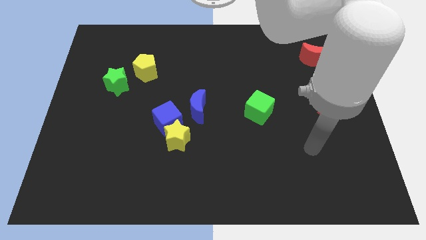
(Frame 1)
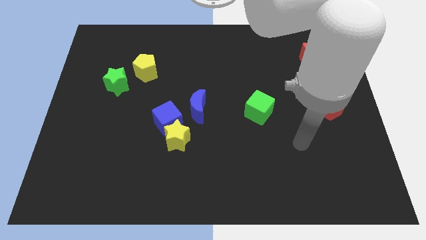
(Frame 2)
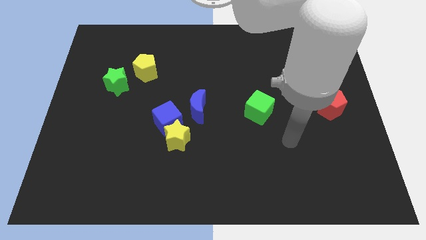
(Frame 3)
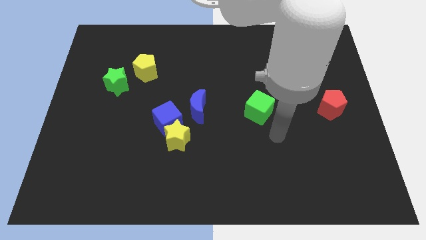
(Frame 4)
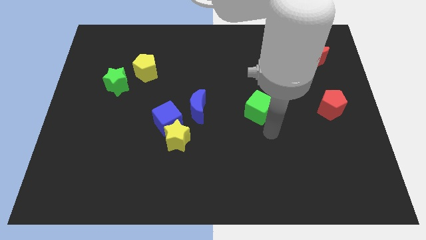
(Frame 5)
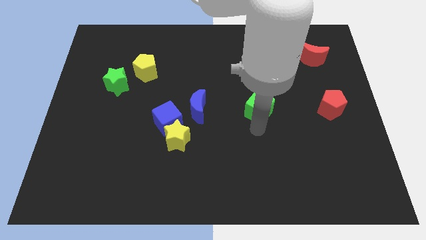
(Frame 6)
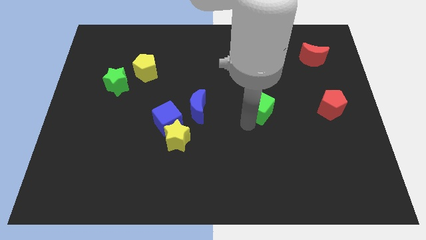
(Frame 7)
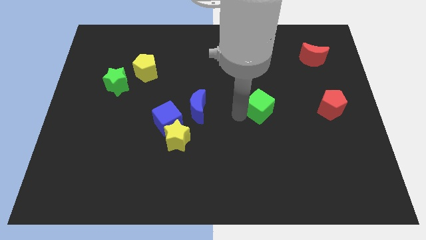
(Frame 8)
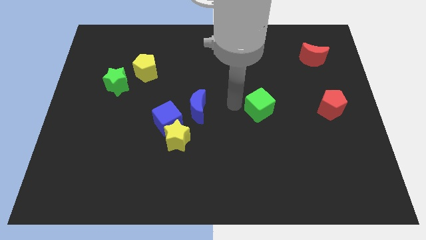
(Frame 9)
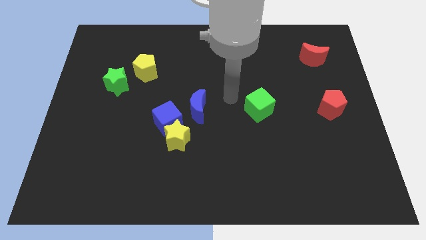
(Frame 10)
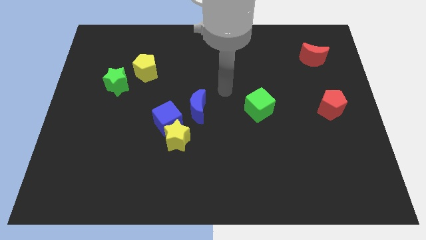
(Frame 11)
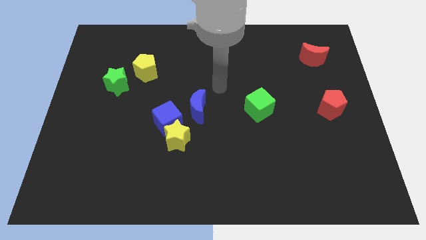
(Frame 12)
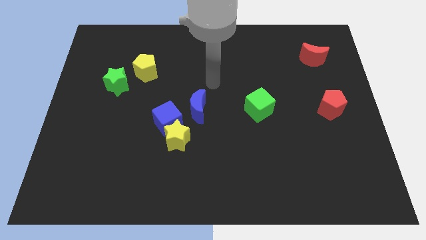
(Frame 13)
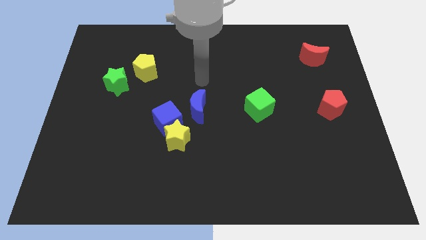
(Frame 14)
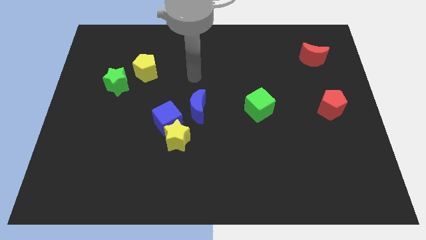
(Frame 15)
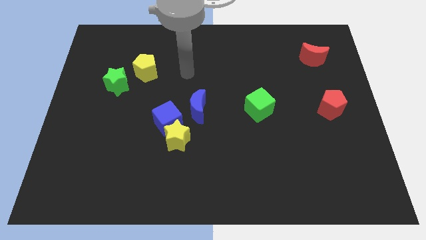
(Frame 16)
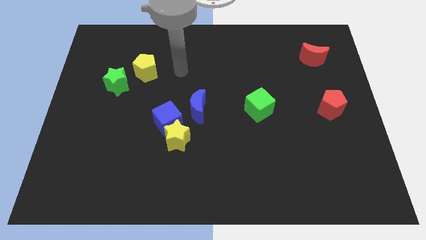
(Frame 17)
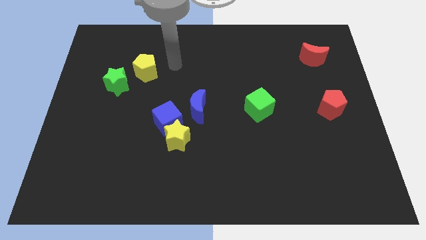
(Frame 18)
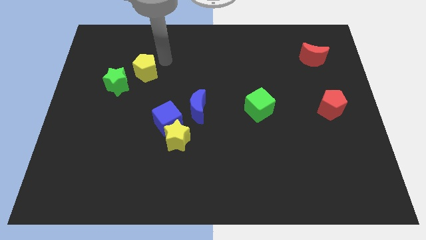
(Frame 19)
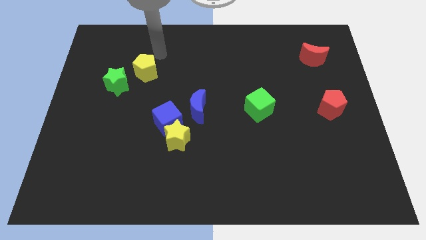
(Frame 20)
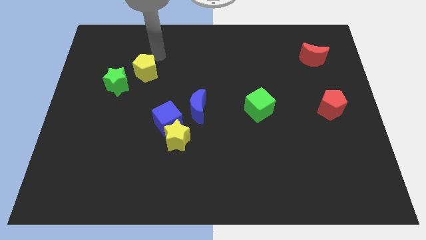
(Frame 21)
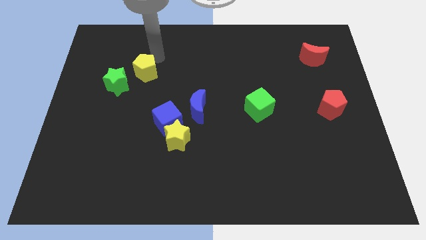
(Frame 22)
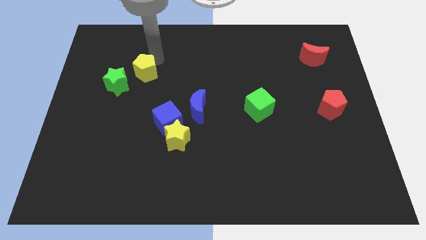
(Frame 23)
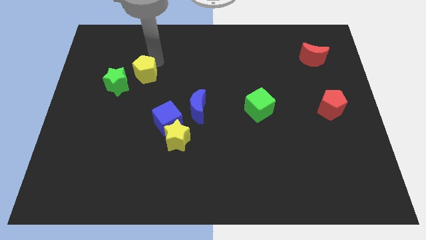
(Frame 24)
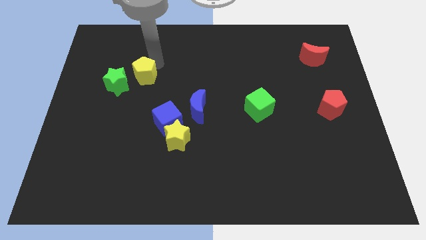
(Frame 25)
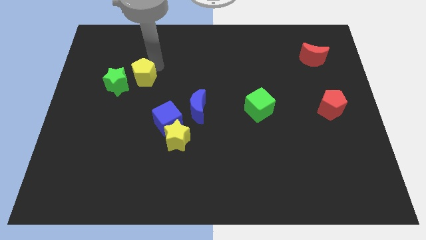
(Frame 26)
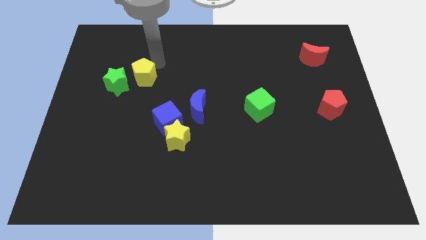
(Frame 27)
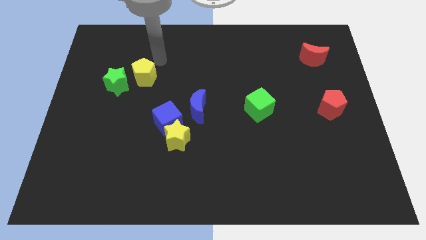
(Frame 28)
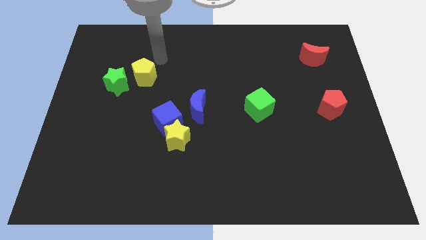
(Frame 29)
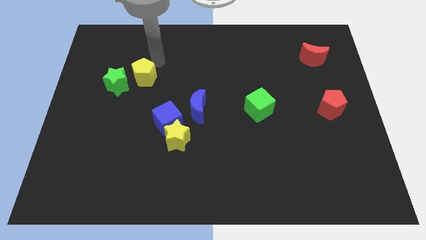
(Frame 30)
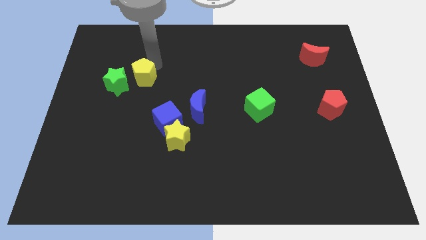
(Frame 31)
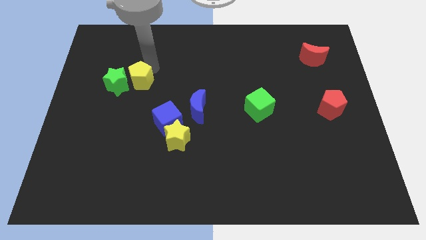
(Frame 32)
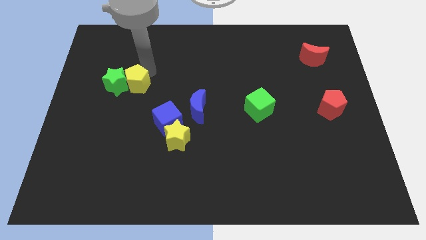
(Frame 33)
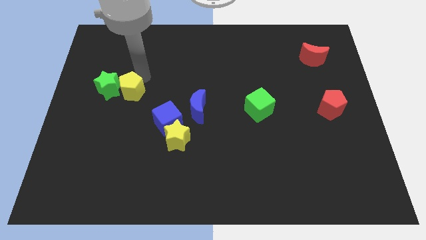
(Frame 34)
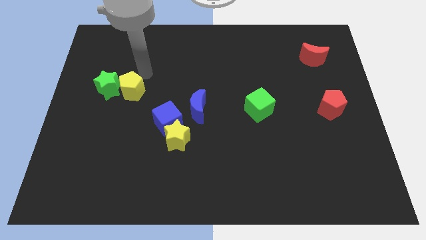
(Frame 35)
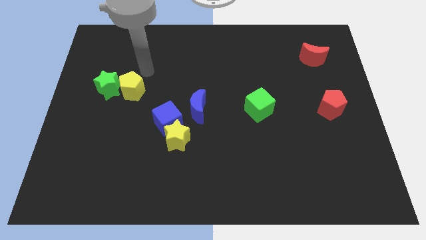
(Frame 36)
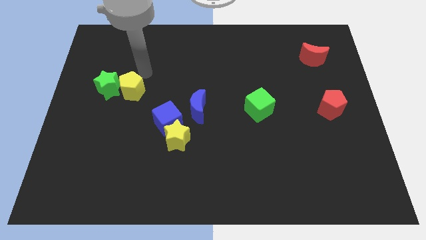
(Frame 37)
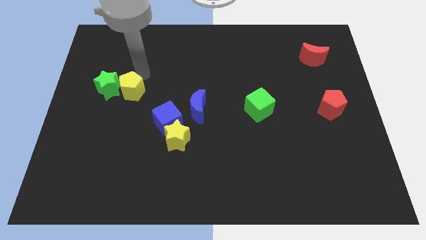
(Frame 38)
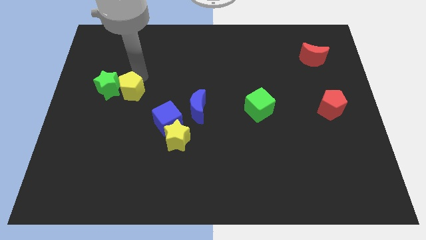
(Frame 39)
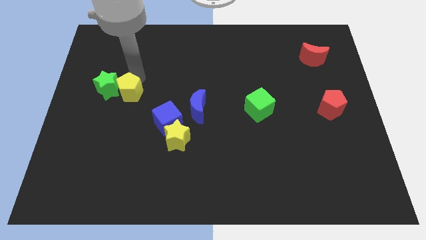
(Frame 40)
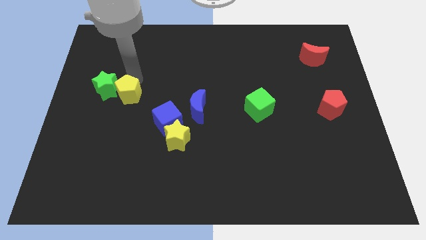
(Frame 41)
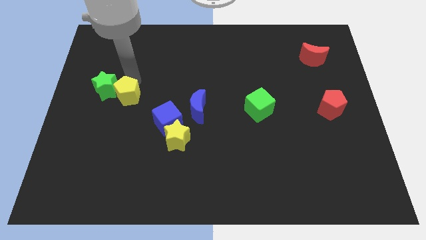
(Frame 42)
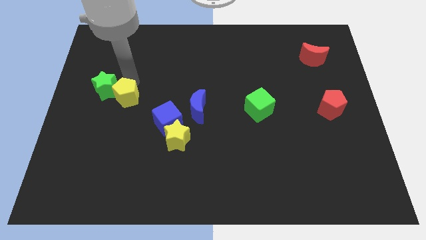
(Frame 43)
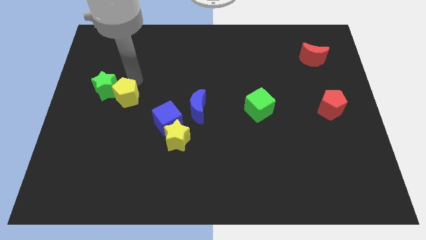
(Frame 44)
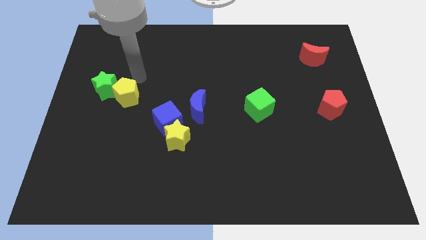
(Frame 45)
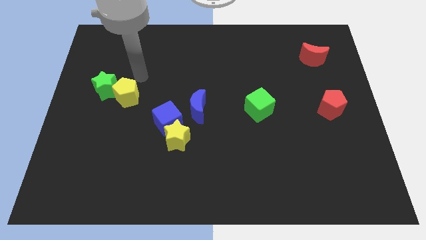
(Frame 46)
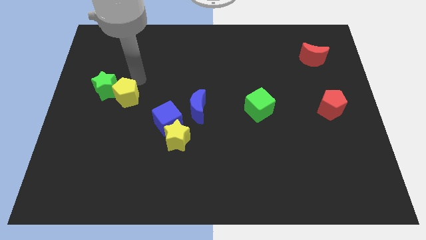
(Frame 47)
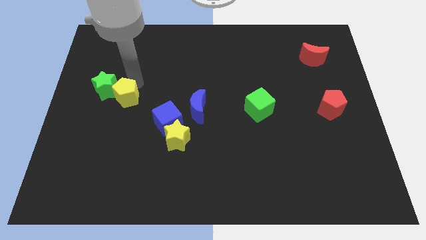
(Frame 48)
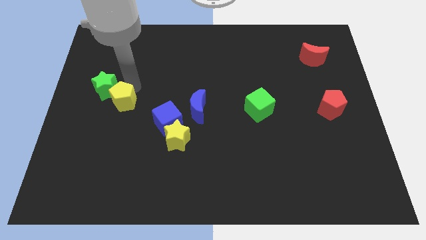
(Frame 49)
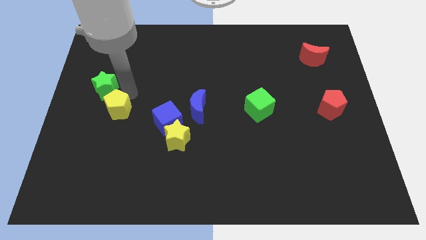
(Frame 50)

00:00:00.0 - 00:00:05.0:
push the yellow pentagon below the green star

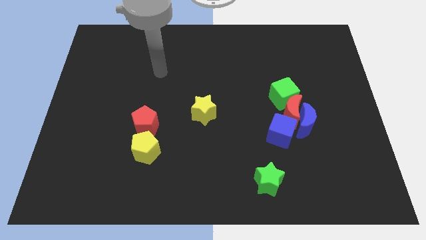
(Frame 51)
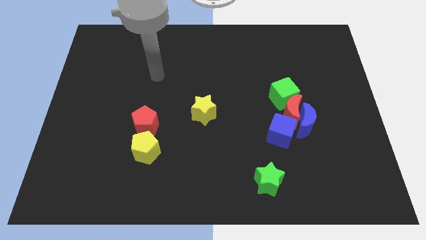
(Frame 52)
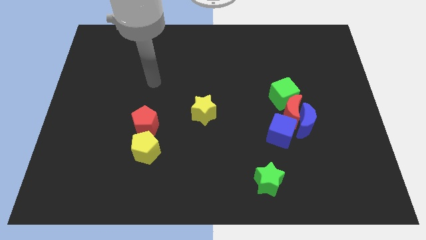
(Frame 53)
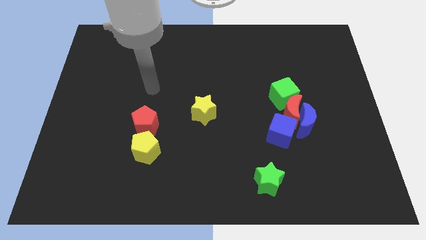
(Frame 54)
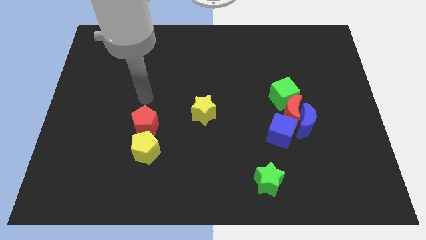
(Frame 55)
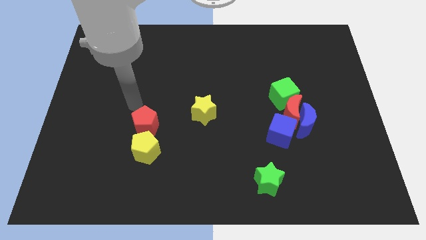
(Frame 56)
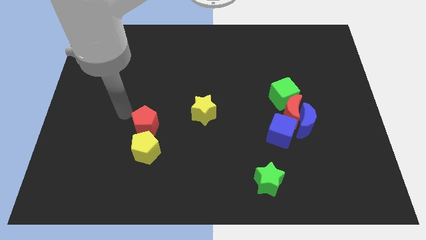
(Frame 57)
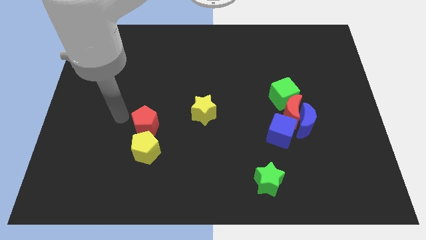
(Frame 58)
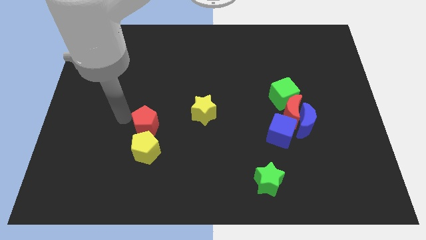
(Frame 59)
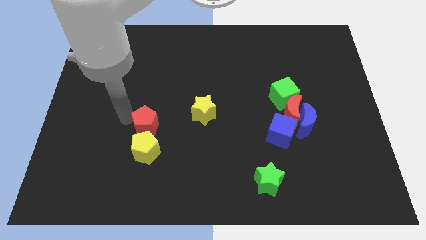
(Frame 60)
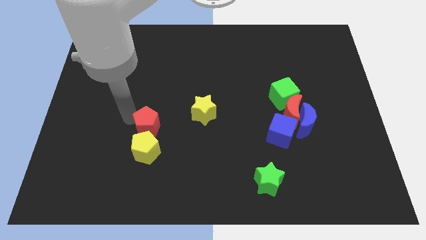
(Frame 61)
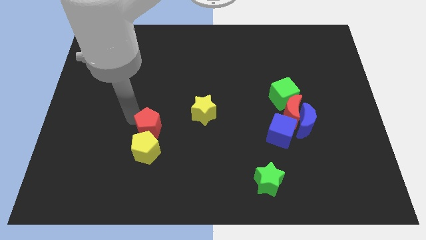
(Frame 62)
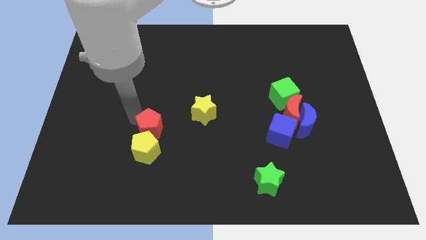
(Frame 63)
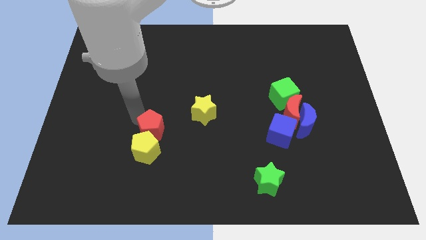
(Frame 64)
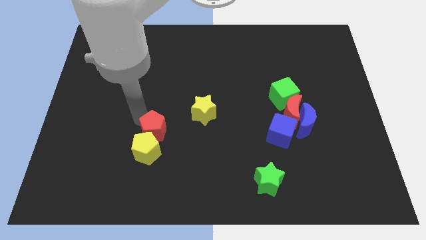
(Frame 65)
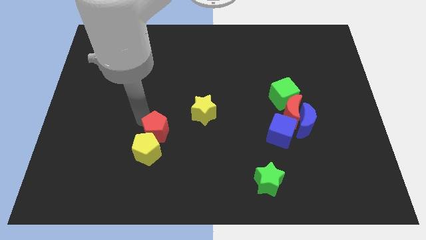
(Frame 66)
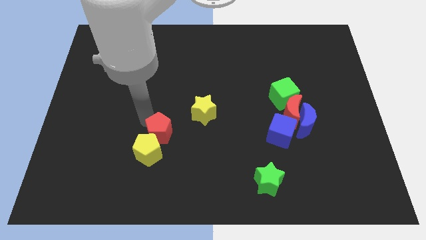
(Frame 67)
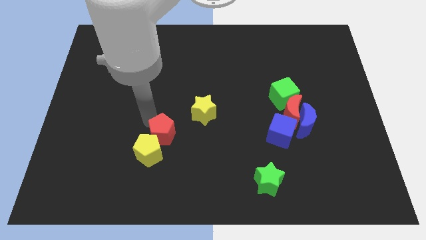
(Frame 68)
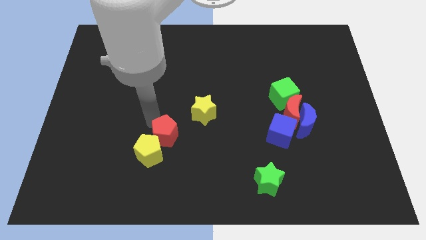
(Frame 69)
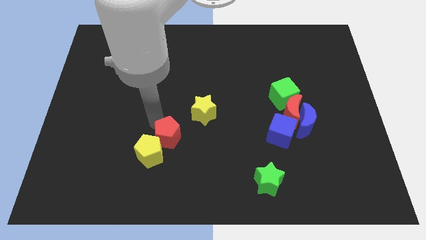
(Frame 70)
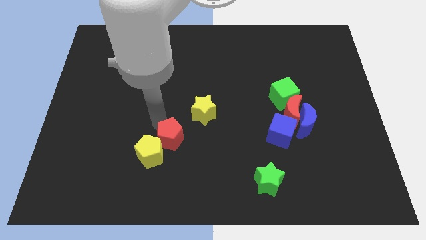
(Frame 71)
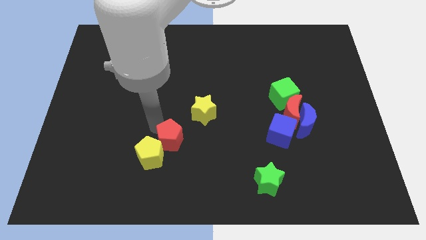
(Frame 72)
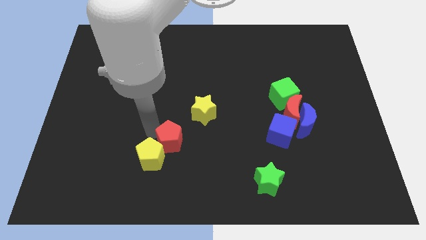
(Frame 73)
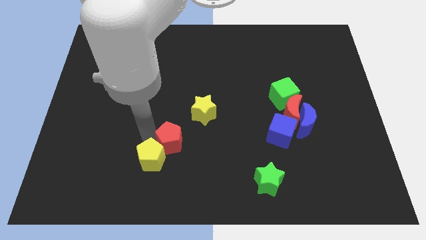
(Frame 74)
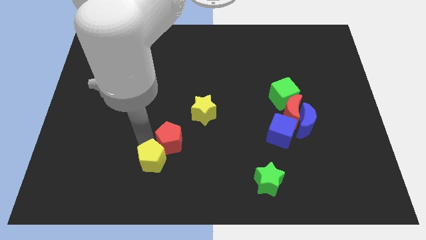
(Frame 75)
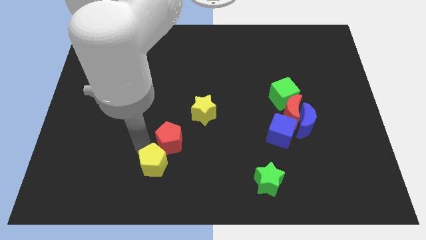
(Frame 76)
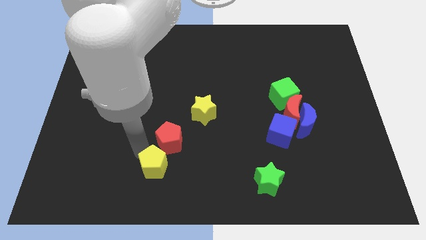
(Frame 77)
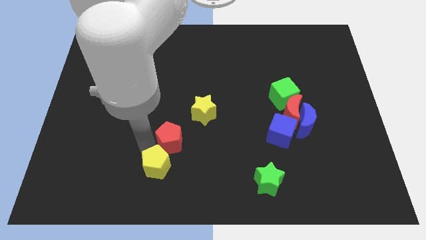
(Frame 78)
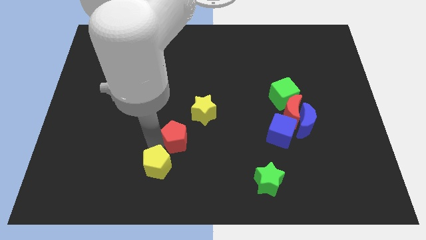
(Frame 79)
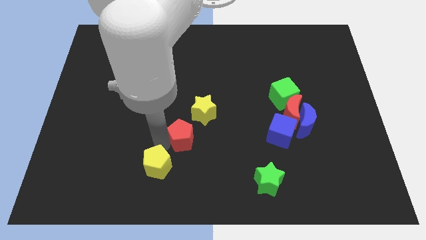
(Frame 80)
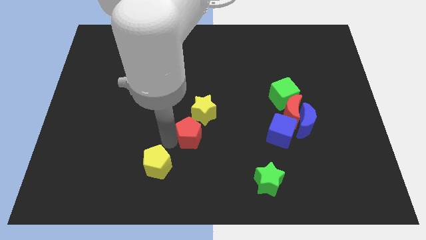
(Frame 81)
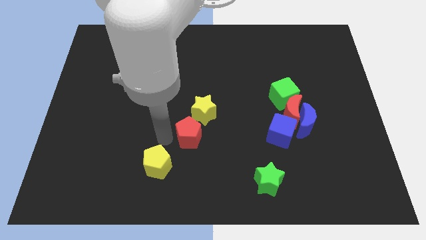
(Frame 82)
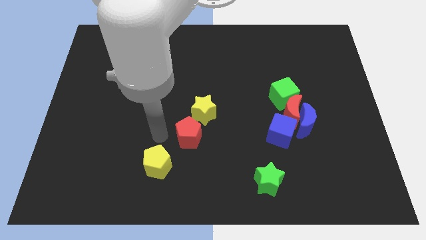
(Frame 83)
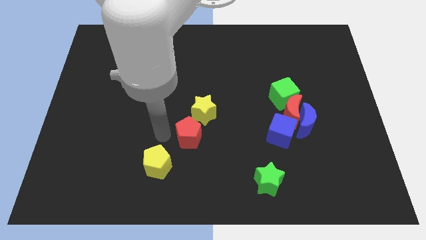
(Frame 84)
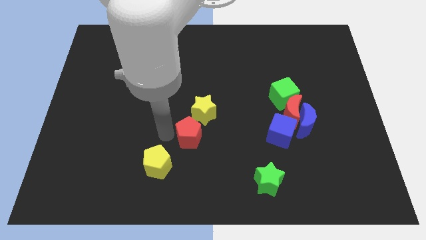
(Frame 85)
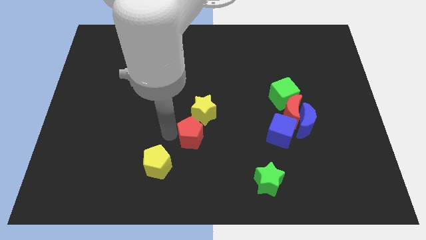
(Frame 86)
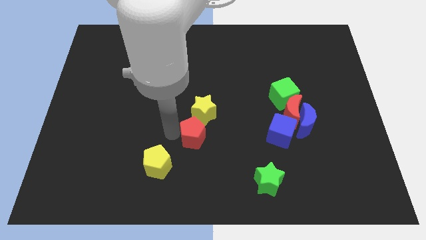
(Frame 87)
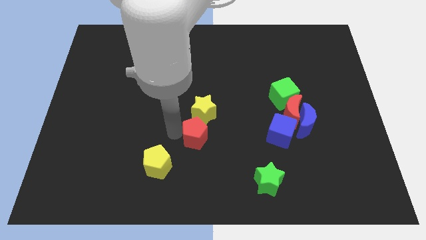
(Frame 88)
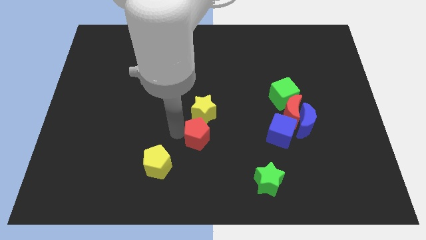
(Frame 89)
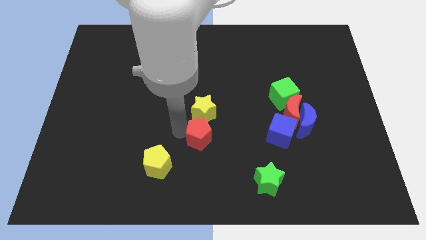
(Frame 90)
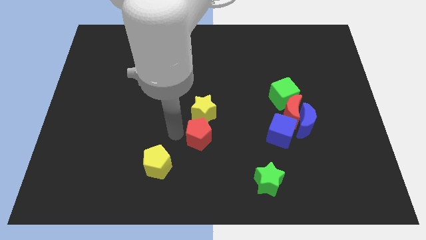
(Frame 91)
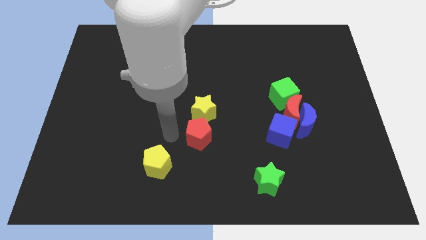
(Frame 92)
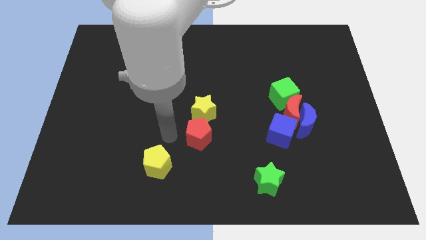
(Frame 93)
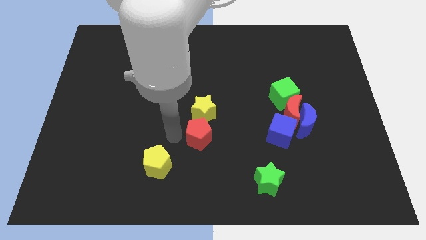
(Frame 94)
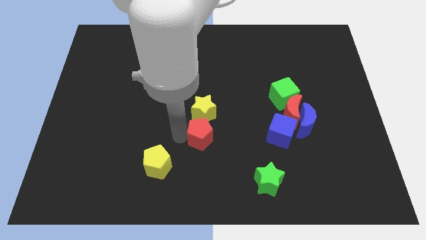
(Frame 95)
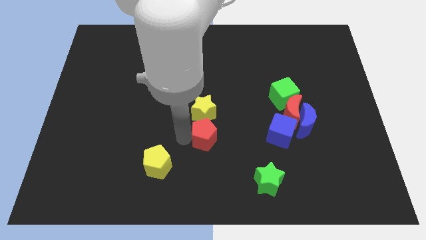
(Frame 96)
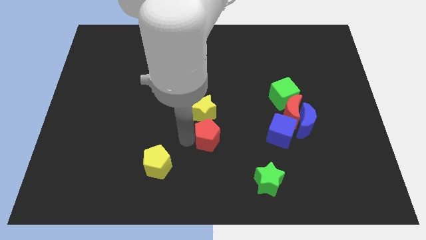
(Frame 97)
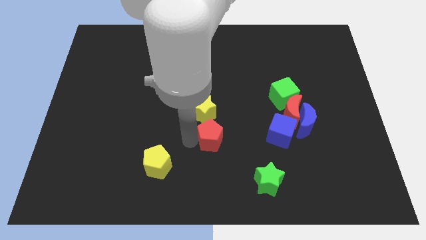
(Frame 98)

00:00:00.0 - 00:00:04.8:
slide the red pentagon to the left side of the blue cube
